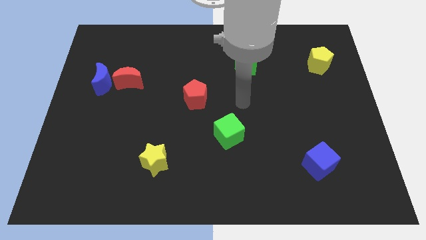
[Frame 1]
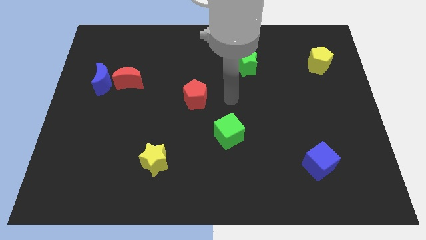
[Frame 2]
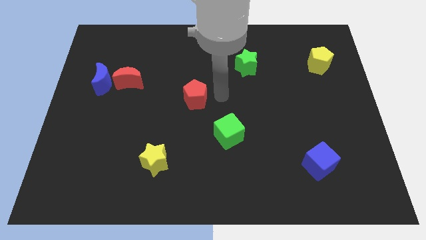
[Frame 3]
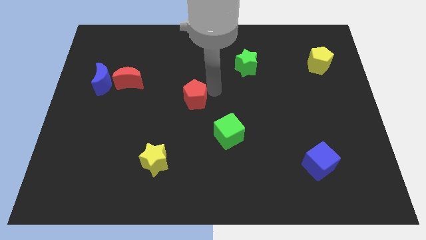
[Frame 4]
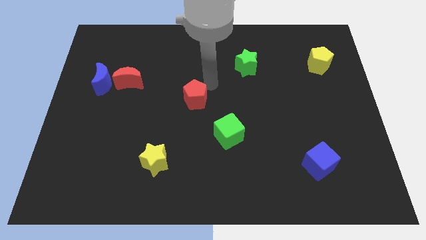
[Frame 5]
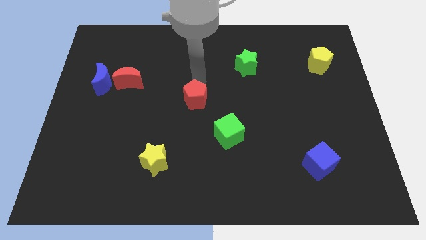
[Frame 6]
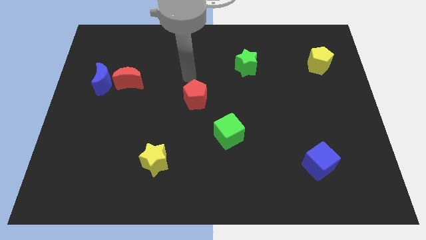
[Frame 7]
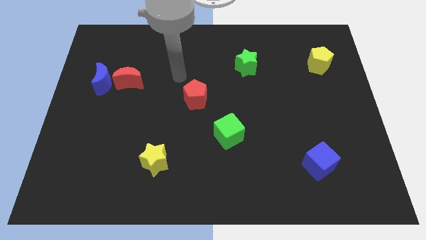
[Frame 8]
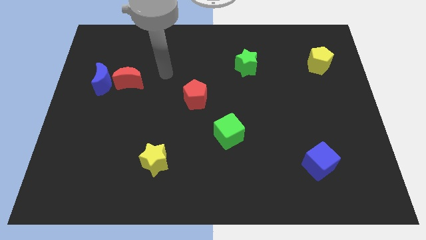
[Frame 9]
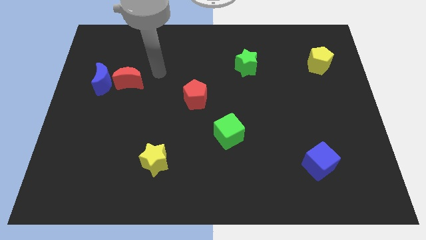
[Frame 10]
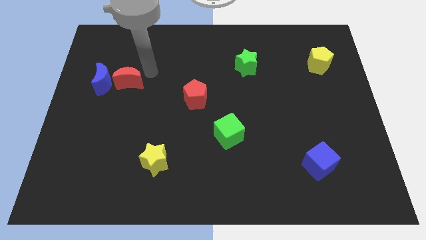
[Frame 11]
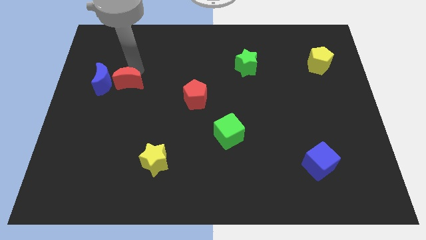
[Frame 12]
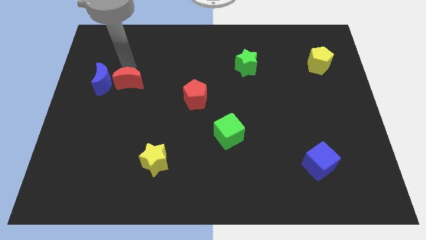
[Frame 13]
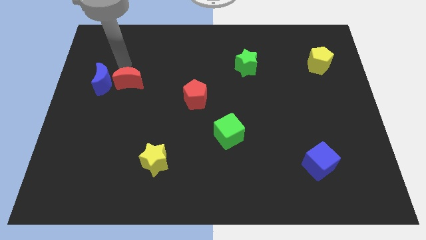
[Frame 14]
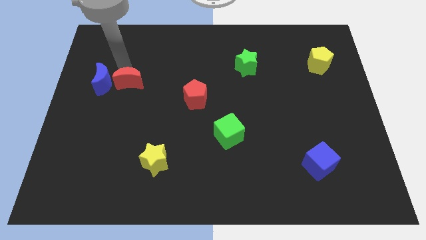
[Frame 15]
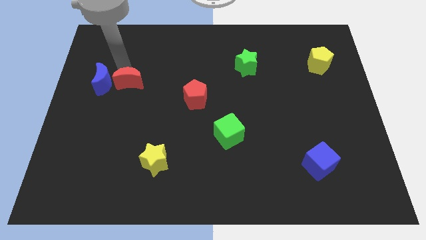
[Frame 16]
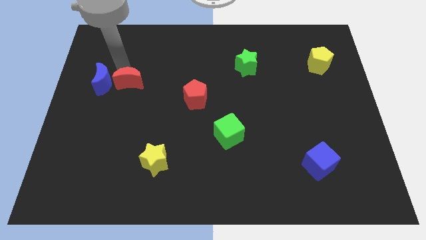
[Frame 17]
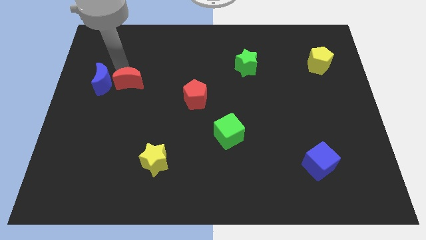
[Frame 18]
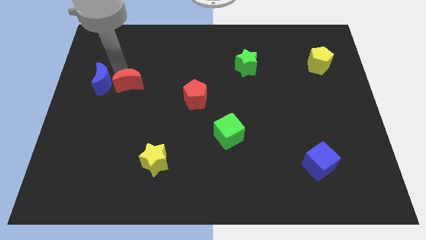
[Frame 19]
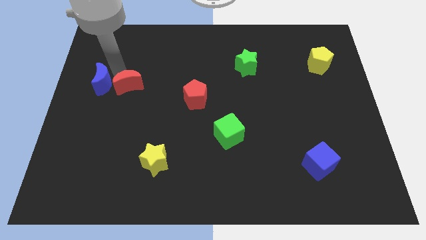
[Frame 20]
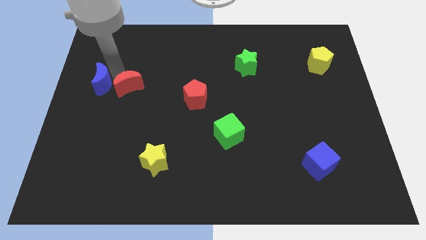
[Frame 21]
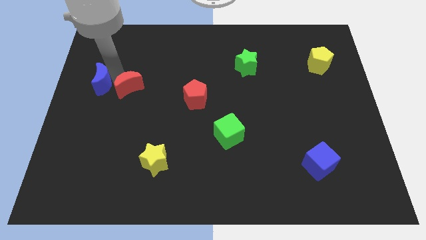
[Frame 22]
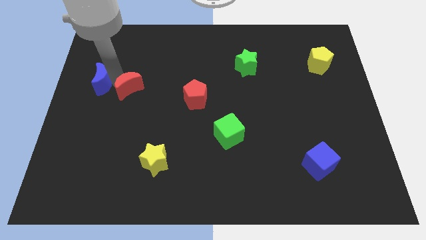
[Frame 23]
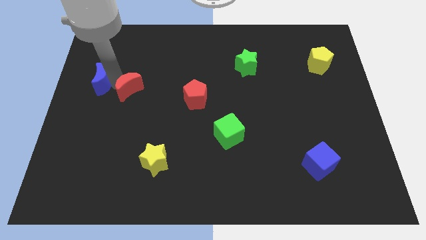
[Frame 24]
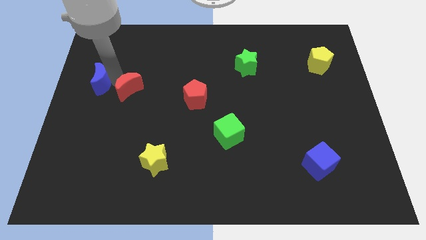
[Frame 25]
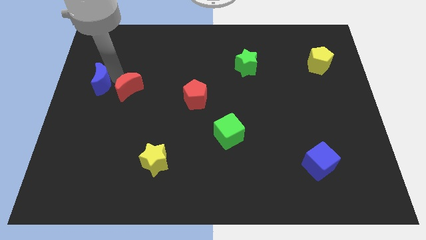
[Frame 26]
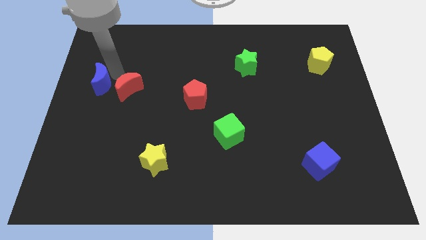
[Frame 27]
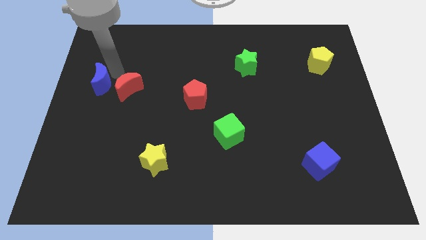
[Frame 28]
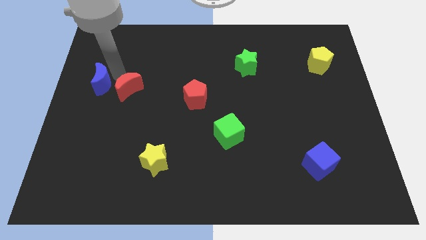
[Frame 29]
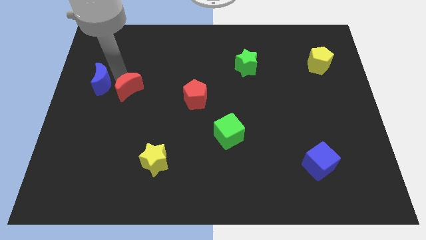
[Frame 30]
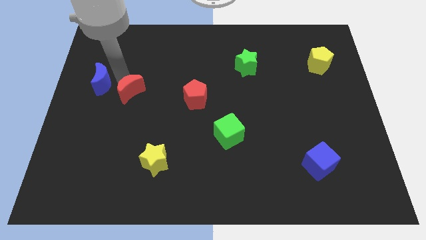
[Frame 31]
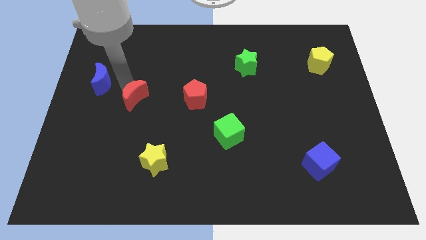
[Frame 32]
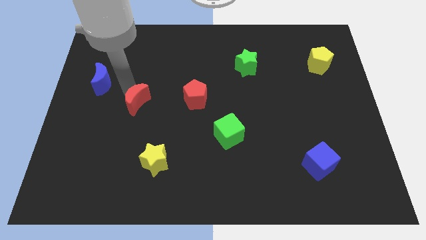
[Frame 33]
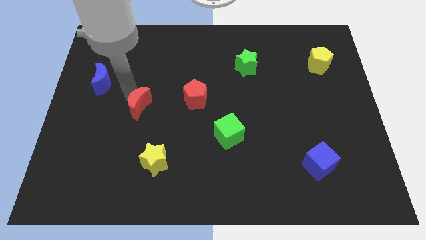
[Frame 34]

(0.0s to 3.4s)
slightly push the red moon downwards and right

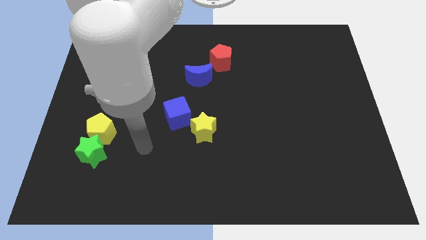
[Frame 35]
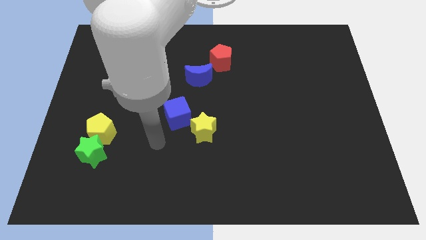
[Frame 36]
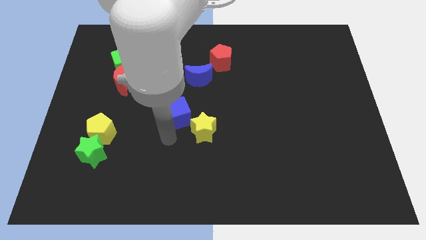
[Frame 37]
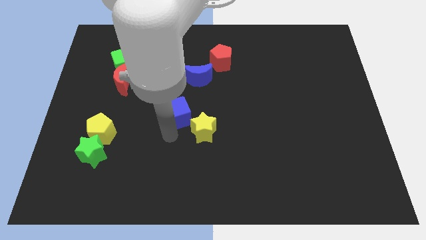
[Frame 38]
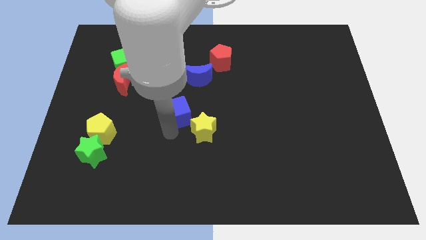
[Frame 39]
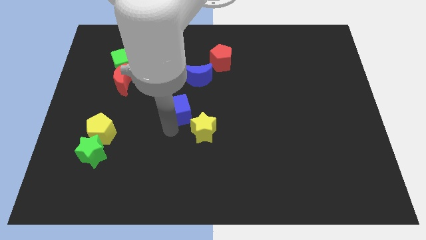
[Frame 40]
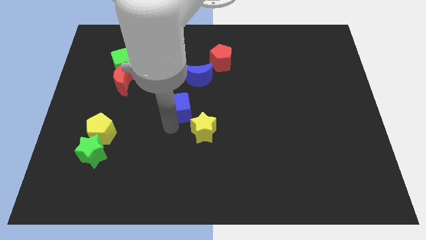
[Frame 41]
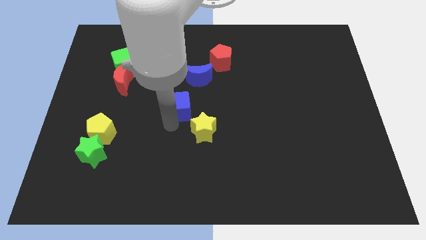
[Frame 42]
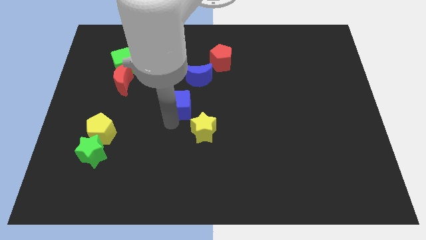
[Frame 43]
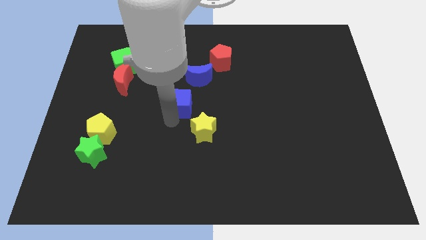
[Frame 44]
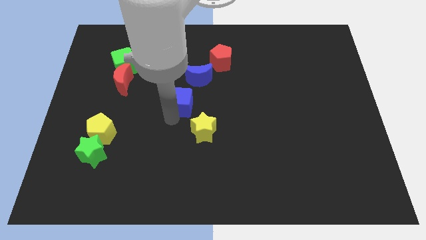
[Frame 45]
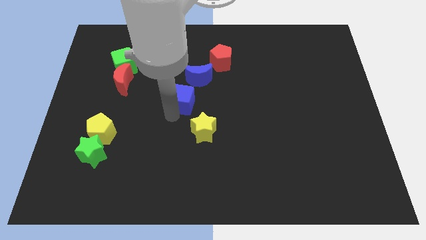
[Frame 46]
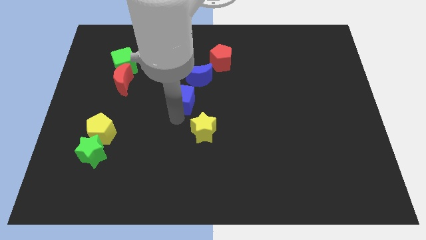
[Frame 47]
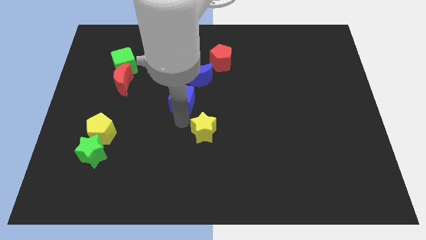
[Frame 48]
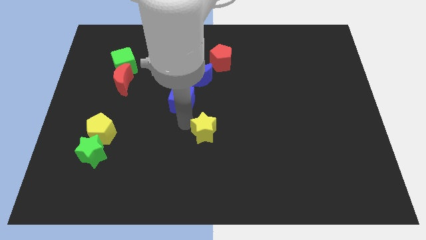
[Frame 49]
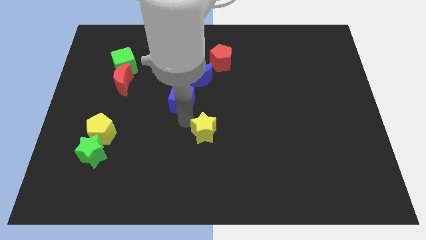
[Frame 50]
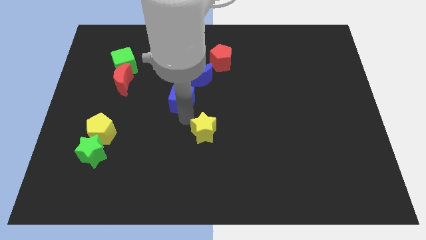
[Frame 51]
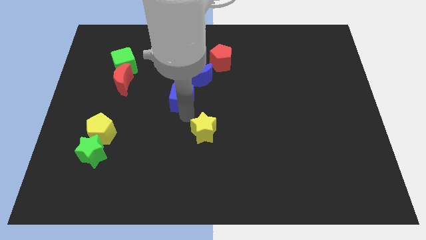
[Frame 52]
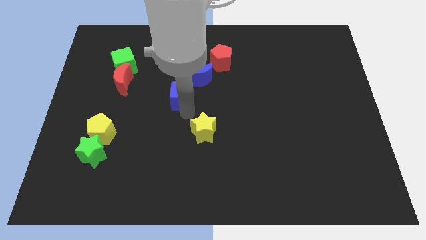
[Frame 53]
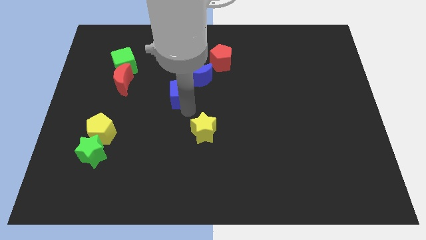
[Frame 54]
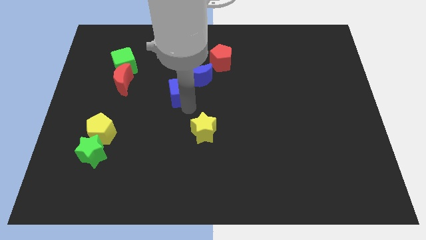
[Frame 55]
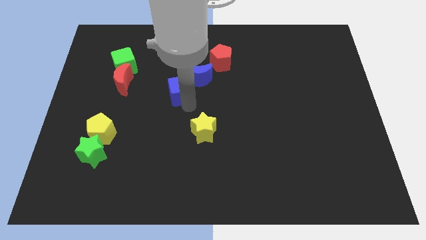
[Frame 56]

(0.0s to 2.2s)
push the blue cube upwards a little bit

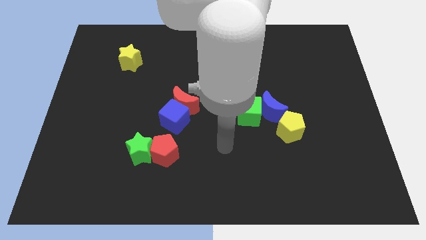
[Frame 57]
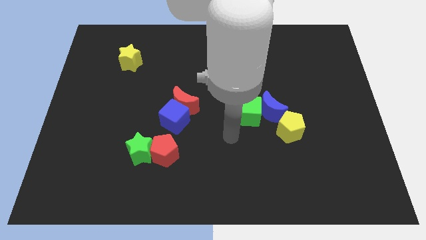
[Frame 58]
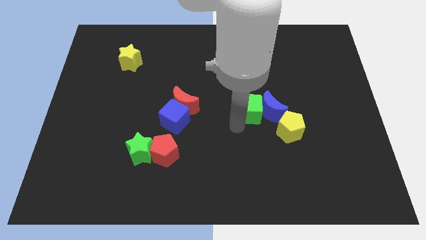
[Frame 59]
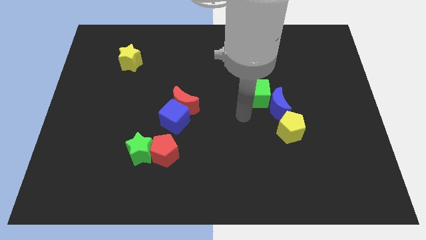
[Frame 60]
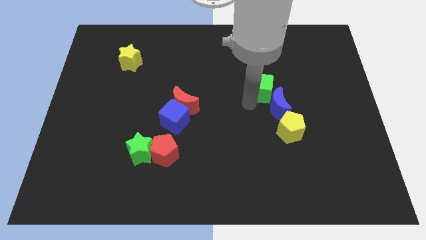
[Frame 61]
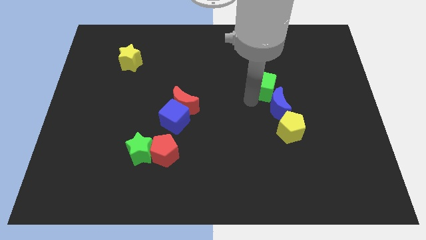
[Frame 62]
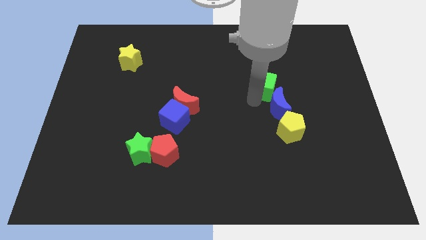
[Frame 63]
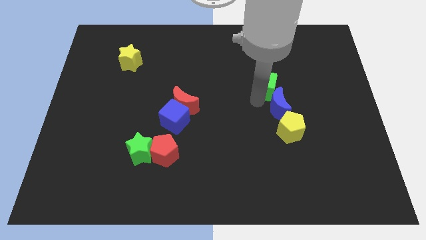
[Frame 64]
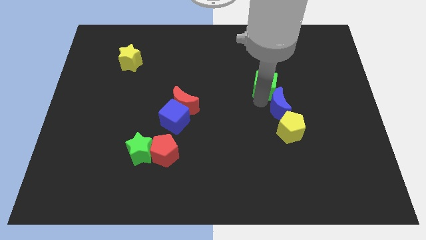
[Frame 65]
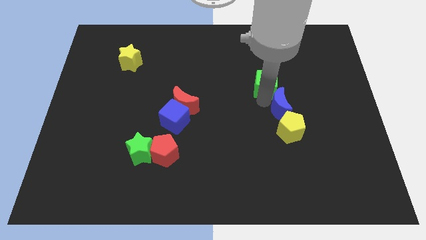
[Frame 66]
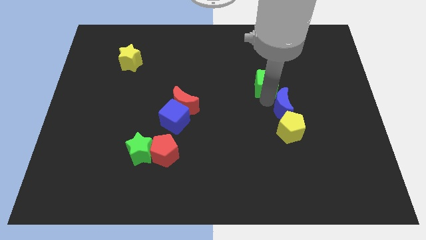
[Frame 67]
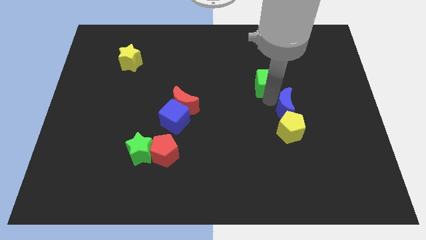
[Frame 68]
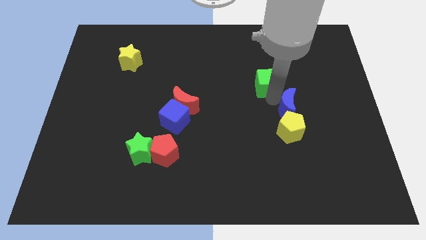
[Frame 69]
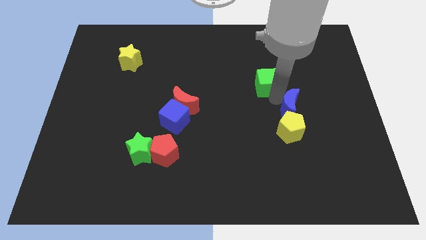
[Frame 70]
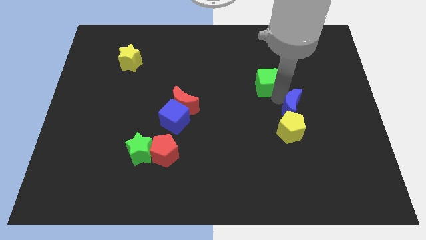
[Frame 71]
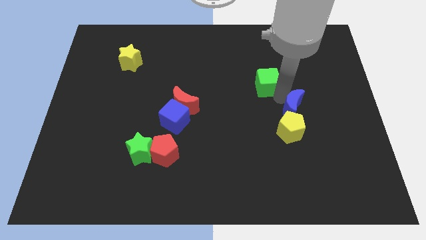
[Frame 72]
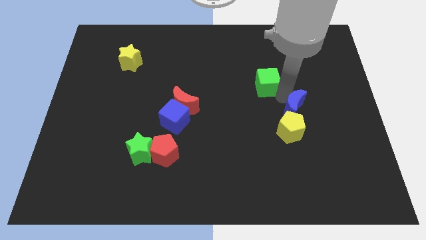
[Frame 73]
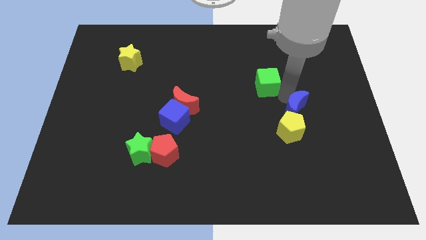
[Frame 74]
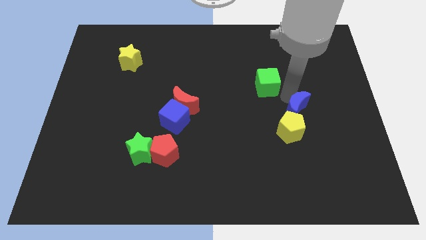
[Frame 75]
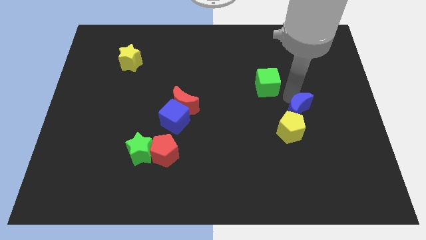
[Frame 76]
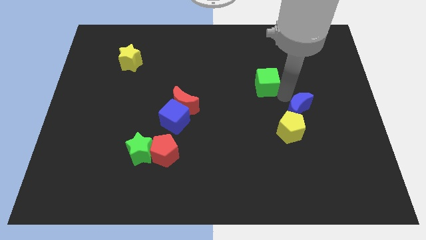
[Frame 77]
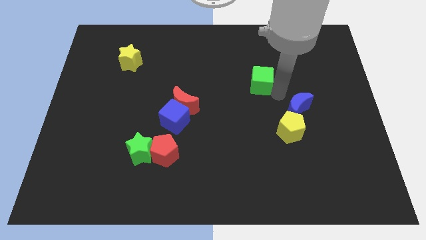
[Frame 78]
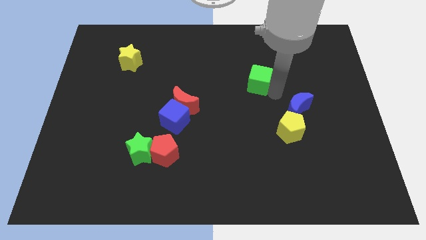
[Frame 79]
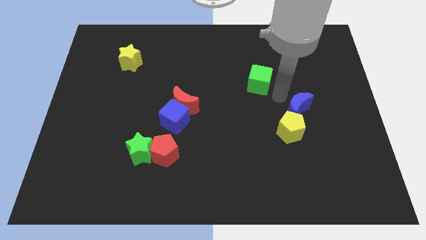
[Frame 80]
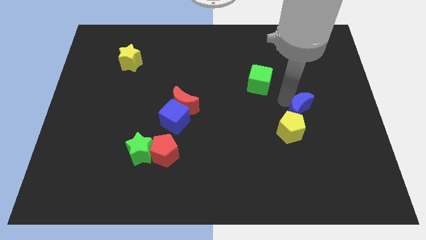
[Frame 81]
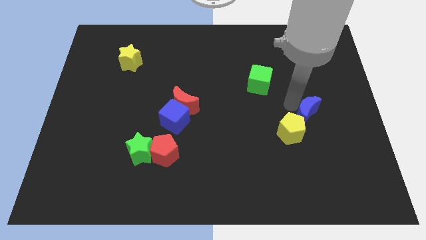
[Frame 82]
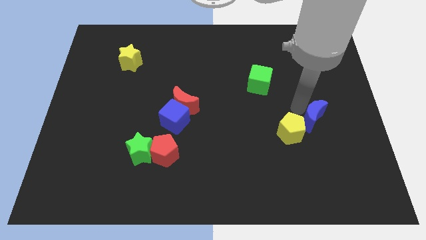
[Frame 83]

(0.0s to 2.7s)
push the blue moon a bit down and right diagonally
